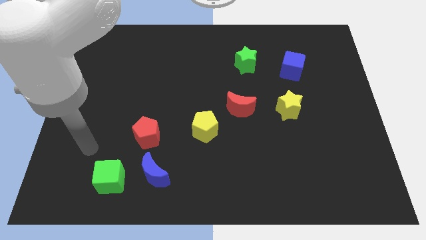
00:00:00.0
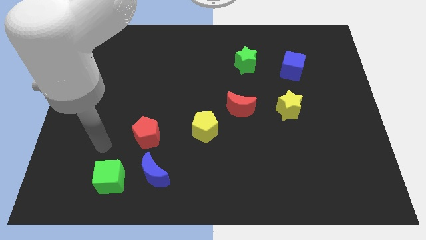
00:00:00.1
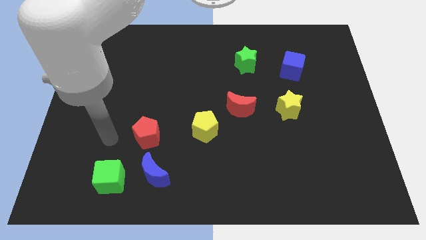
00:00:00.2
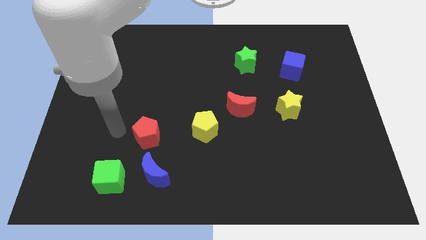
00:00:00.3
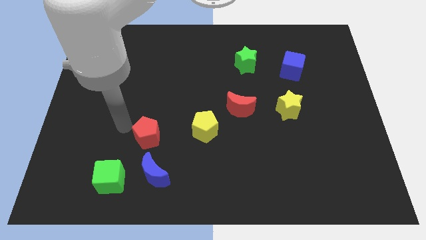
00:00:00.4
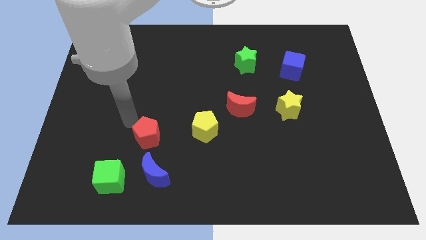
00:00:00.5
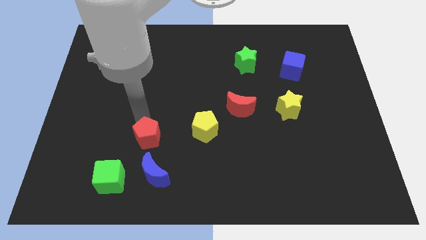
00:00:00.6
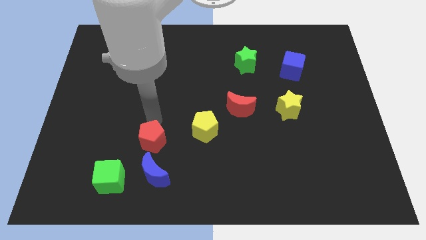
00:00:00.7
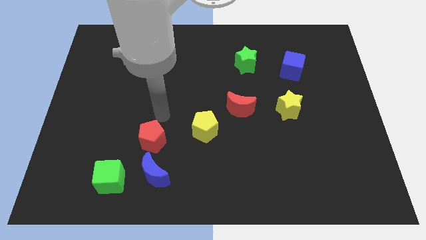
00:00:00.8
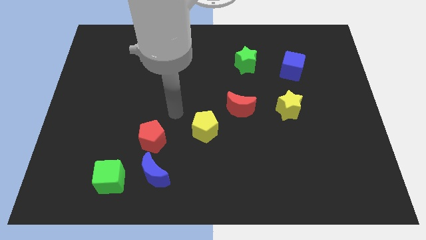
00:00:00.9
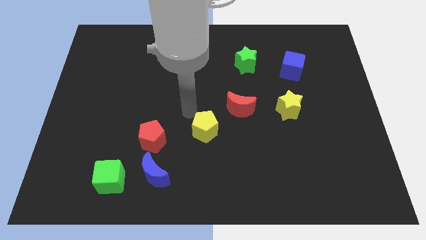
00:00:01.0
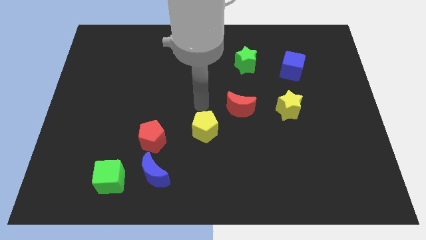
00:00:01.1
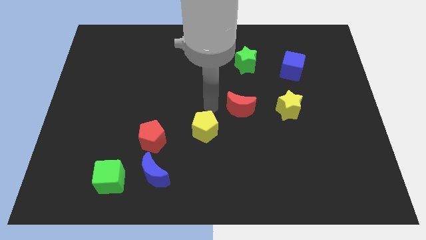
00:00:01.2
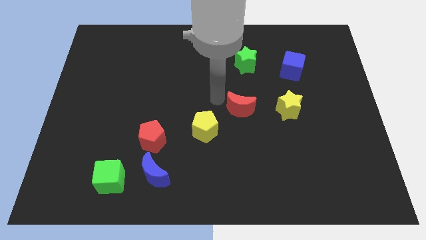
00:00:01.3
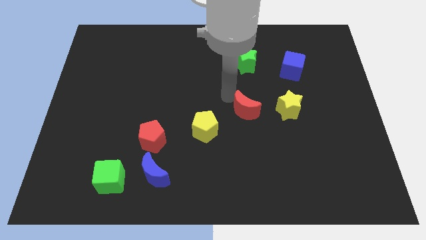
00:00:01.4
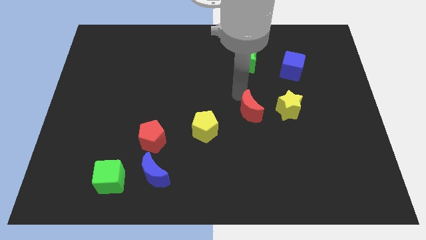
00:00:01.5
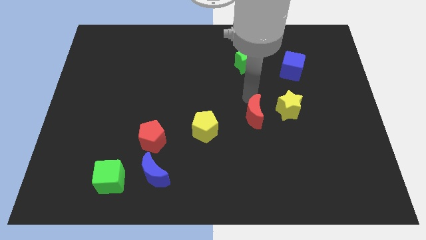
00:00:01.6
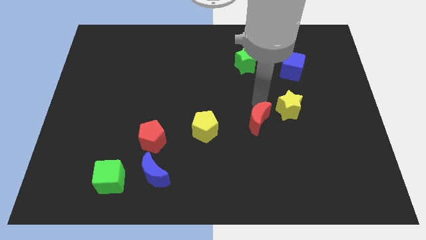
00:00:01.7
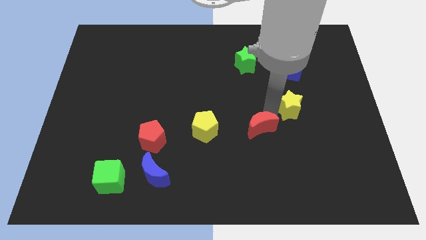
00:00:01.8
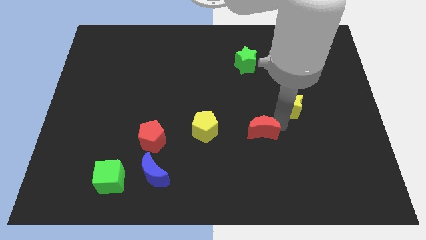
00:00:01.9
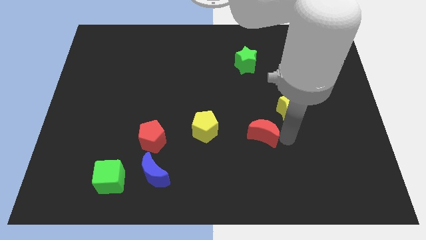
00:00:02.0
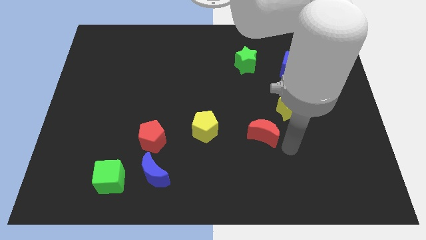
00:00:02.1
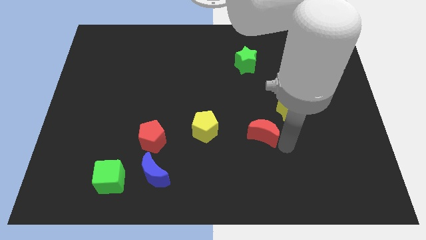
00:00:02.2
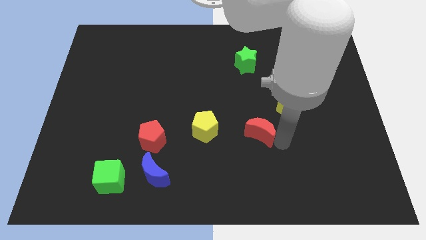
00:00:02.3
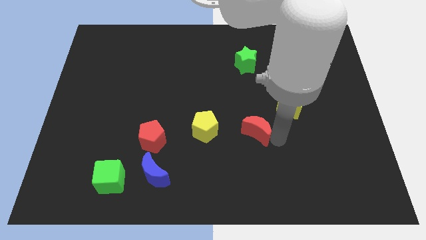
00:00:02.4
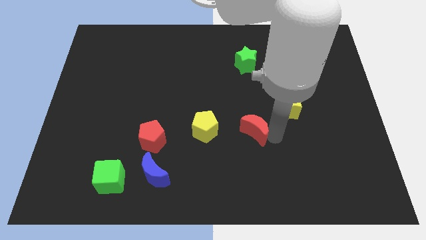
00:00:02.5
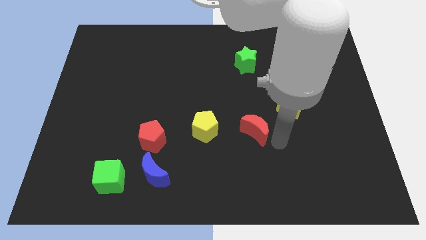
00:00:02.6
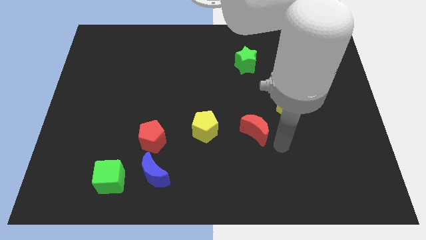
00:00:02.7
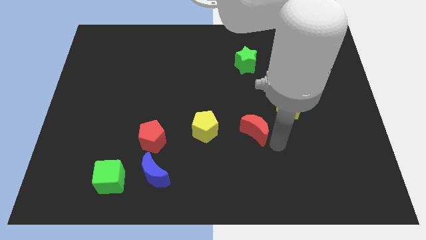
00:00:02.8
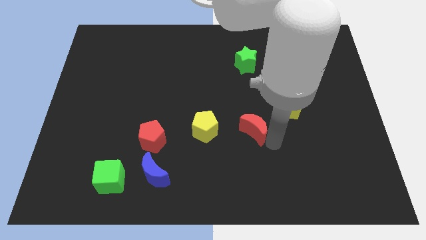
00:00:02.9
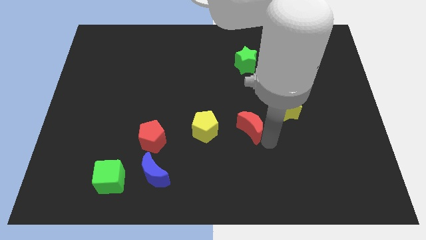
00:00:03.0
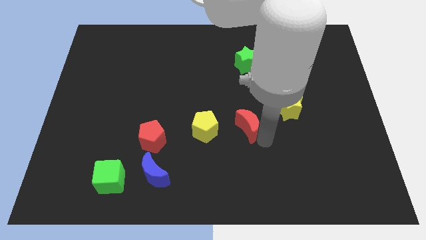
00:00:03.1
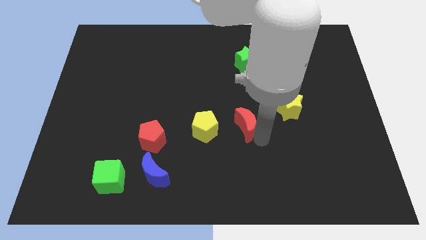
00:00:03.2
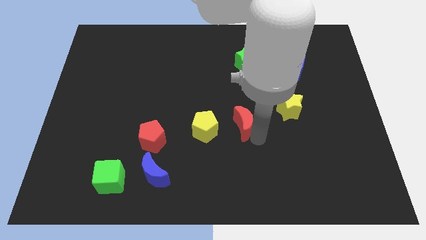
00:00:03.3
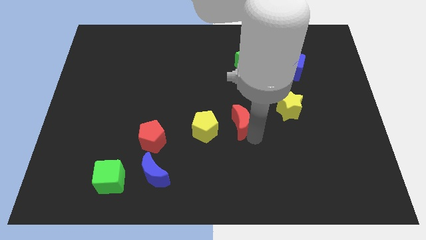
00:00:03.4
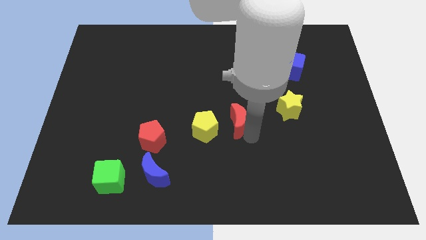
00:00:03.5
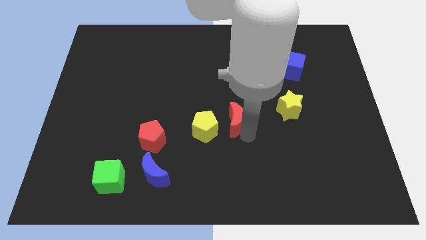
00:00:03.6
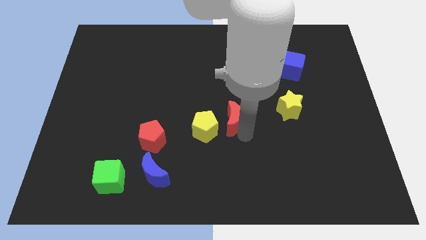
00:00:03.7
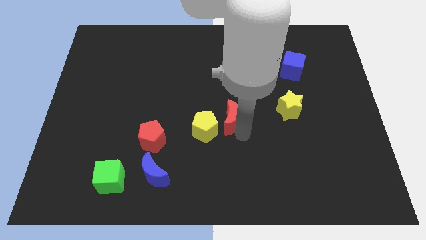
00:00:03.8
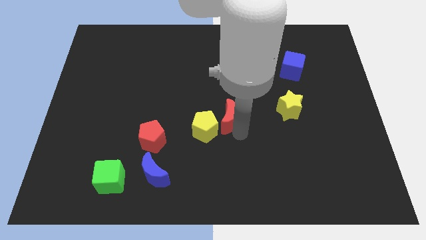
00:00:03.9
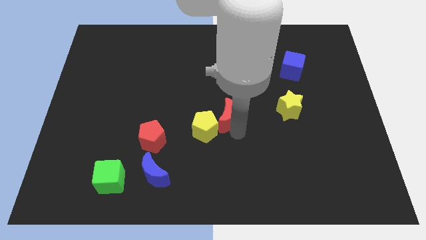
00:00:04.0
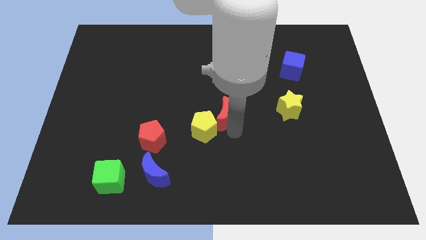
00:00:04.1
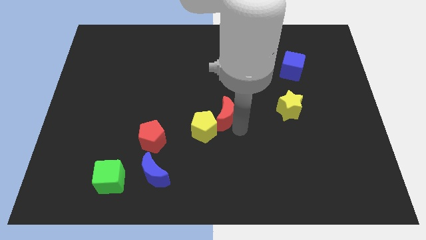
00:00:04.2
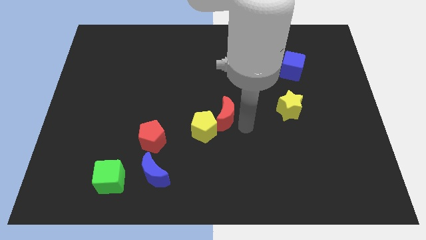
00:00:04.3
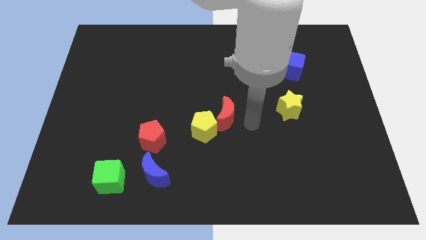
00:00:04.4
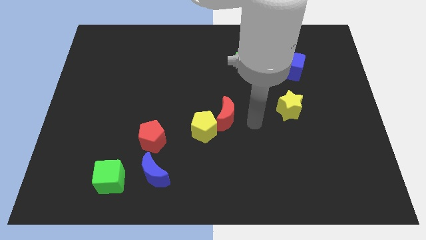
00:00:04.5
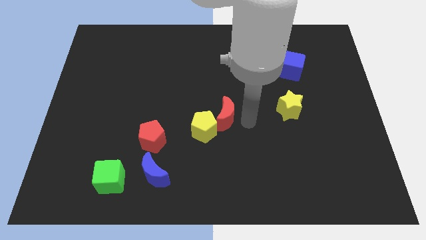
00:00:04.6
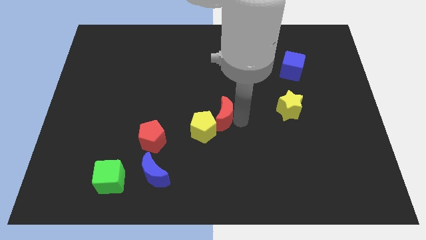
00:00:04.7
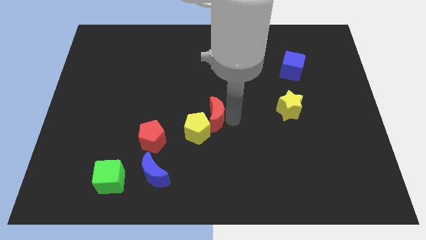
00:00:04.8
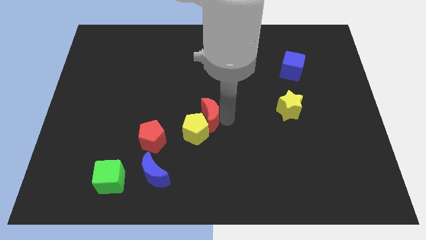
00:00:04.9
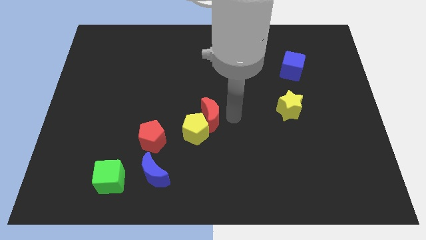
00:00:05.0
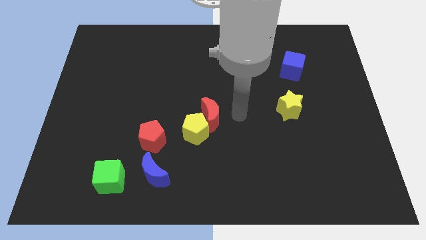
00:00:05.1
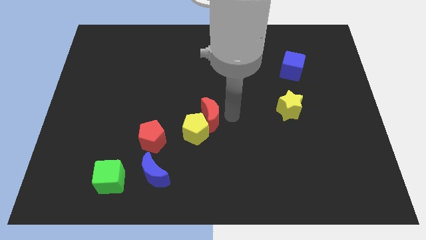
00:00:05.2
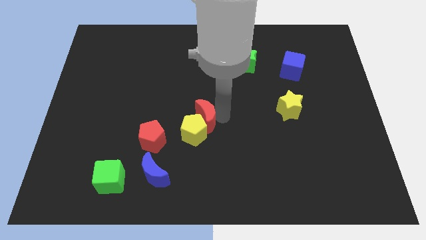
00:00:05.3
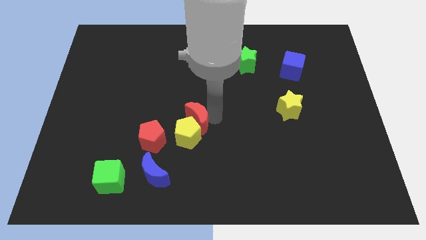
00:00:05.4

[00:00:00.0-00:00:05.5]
slide the red moon to the top right side of the red pentagon

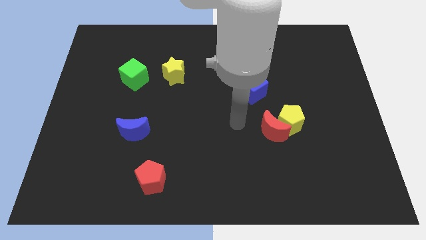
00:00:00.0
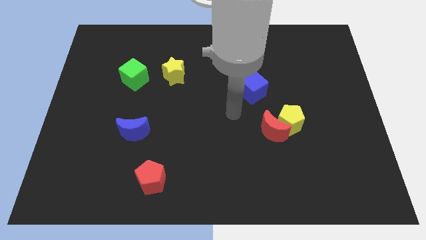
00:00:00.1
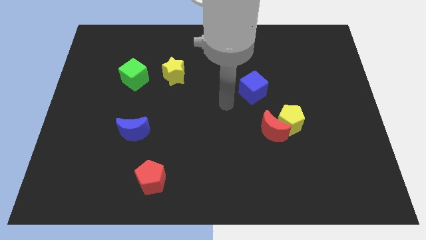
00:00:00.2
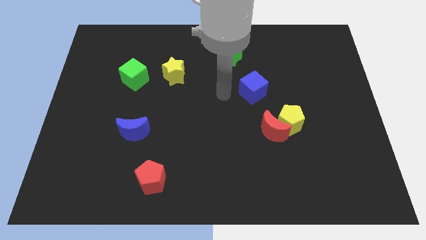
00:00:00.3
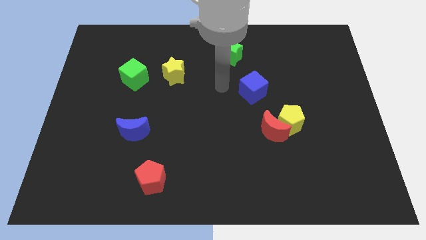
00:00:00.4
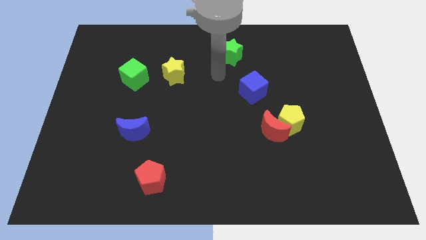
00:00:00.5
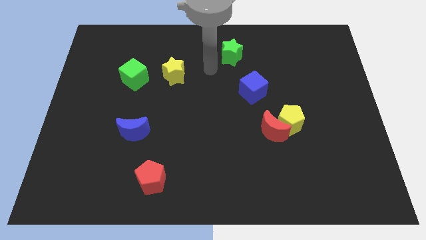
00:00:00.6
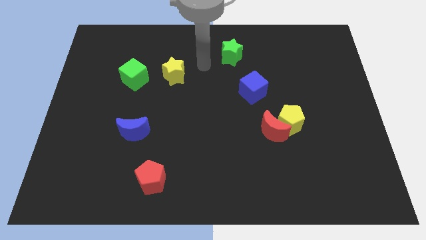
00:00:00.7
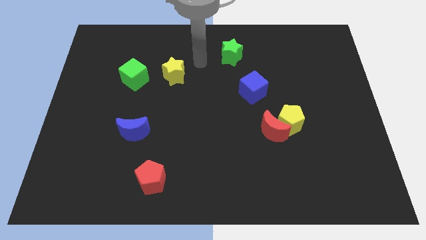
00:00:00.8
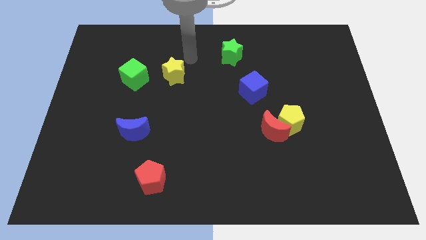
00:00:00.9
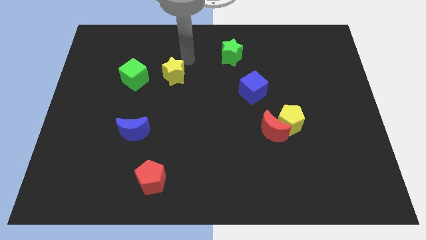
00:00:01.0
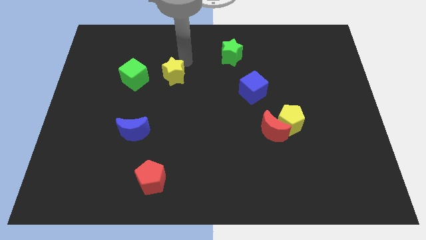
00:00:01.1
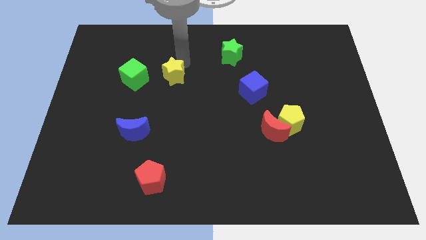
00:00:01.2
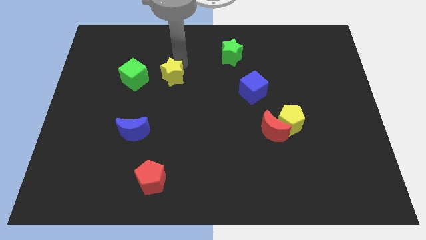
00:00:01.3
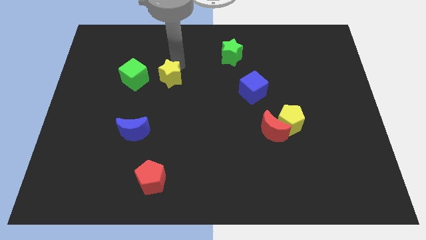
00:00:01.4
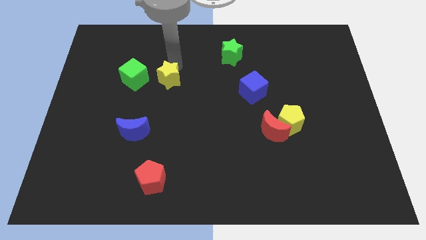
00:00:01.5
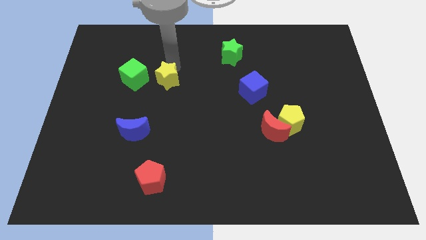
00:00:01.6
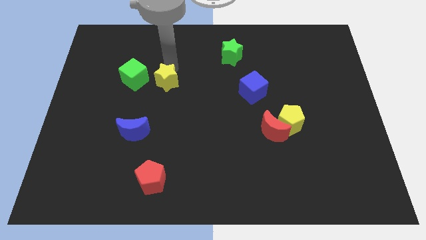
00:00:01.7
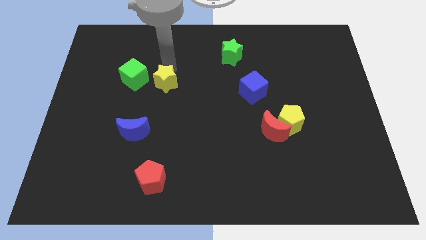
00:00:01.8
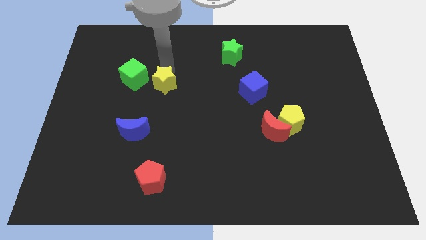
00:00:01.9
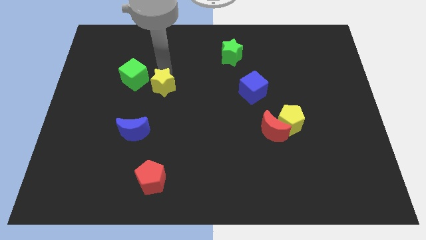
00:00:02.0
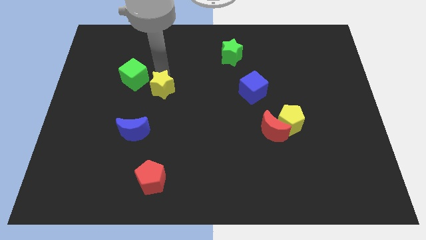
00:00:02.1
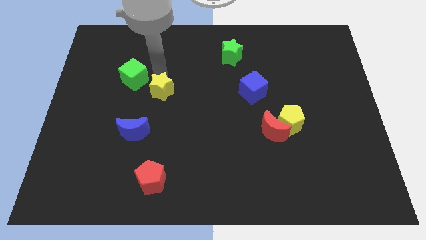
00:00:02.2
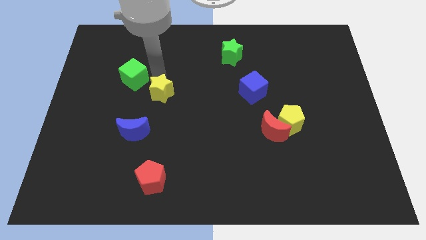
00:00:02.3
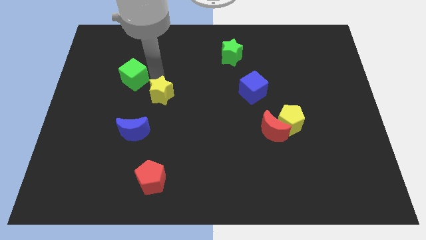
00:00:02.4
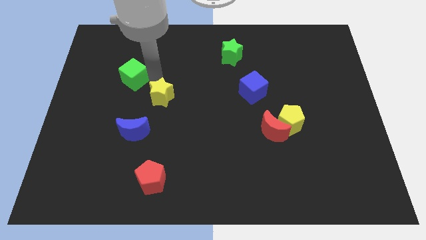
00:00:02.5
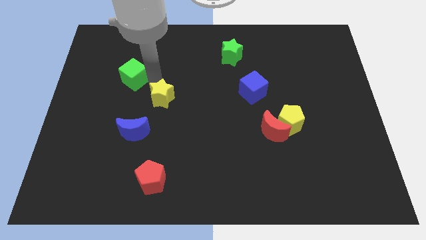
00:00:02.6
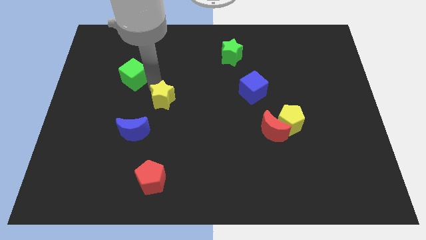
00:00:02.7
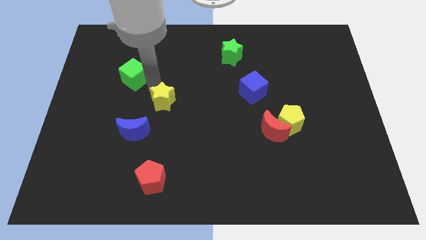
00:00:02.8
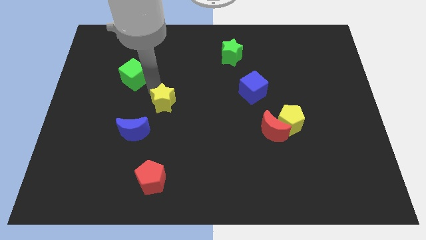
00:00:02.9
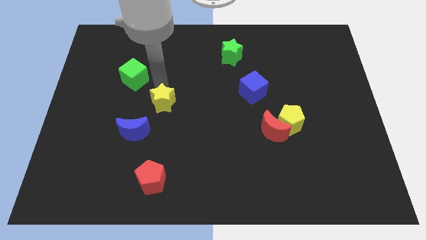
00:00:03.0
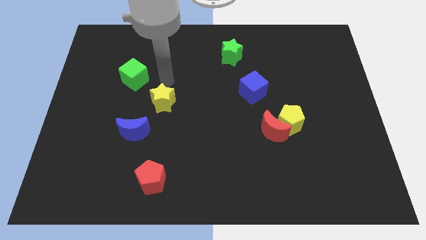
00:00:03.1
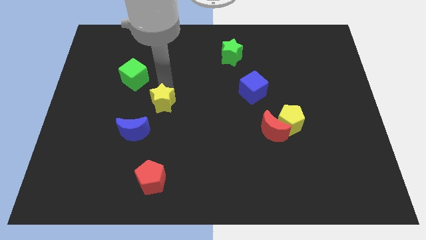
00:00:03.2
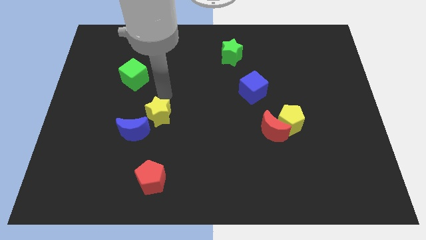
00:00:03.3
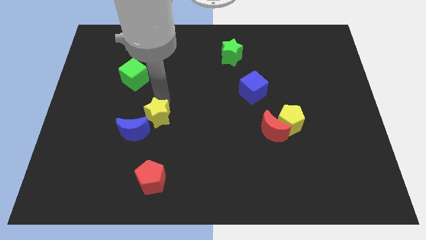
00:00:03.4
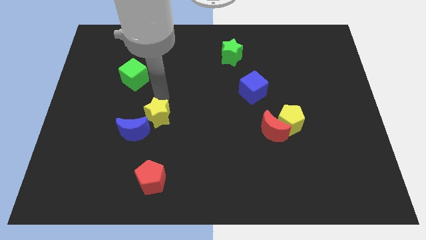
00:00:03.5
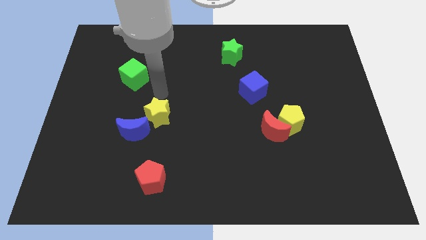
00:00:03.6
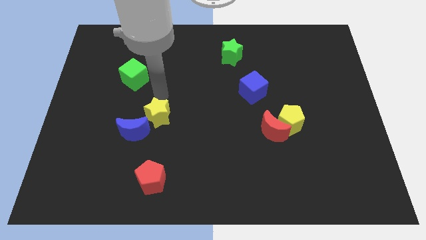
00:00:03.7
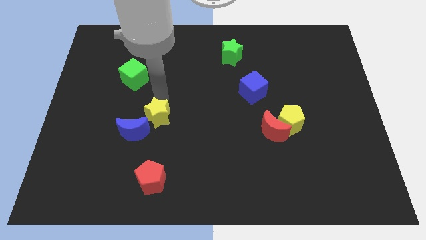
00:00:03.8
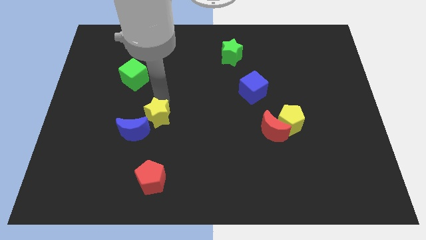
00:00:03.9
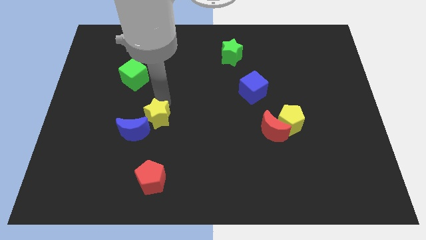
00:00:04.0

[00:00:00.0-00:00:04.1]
move the yellow star to the top of the red pentagon
